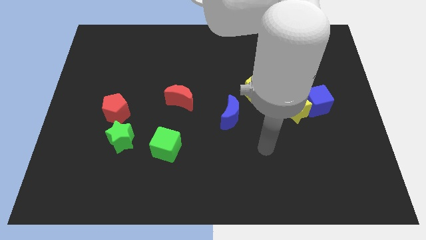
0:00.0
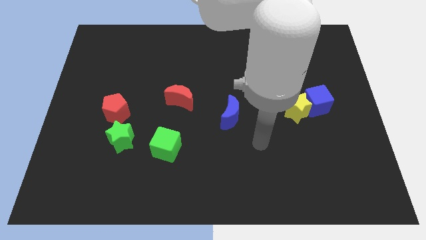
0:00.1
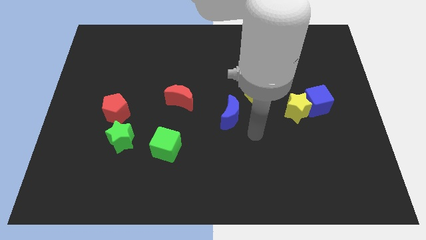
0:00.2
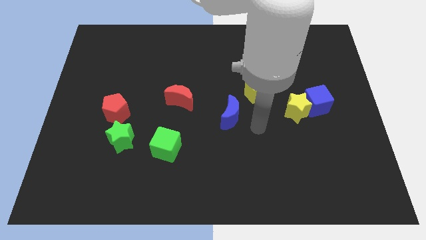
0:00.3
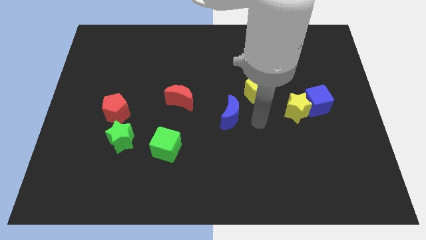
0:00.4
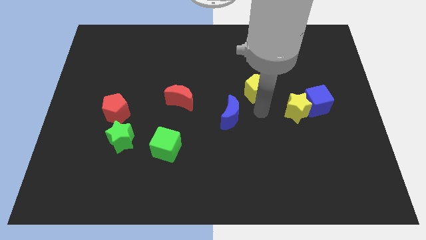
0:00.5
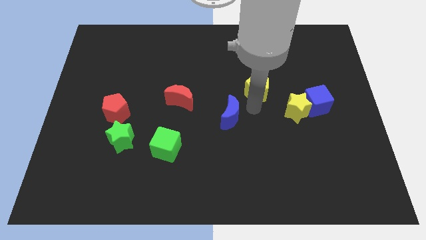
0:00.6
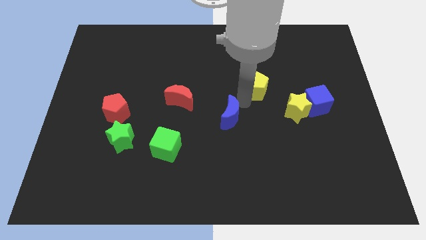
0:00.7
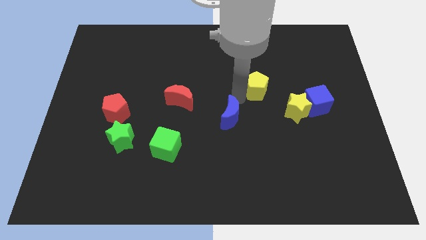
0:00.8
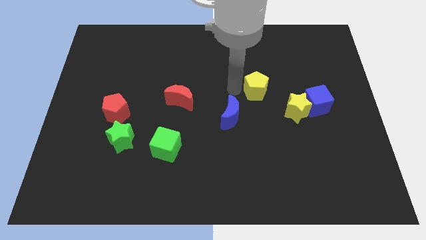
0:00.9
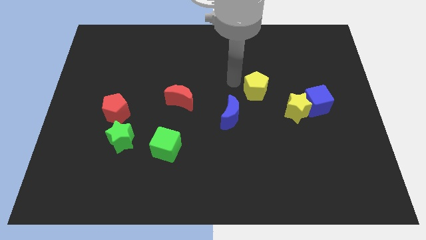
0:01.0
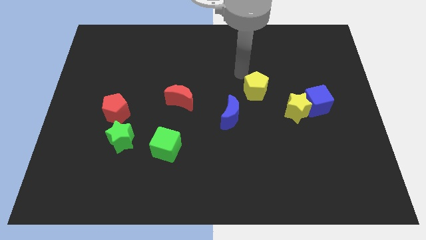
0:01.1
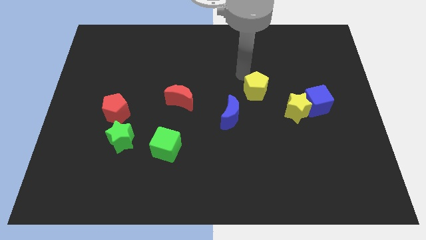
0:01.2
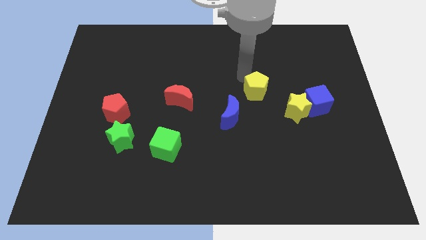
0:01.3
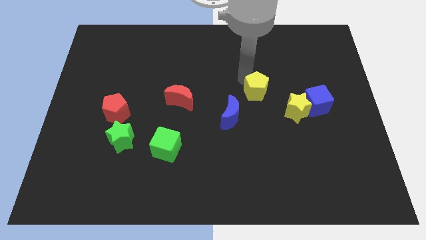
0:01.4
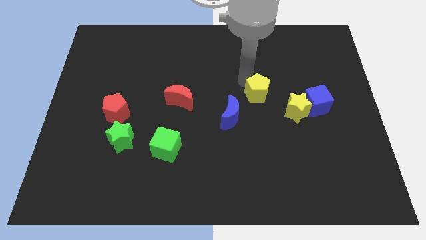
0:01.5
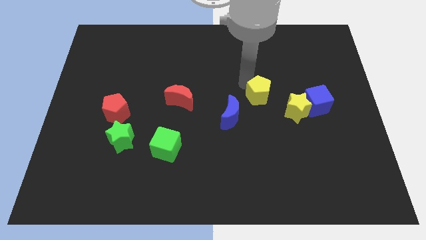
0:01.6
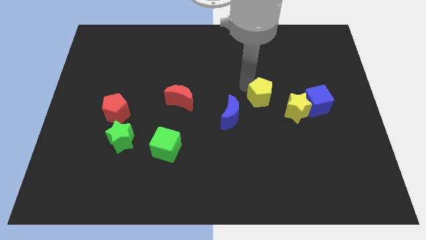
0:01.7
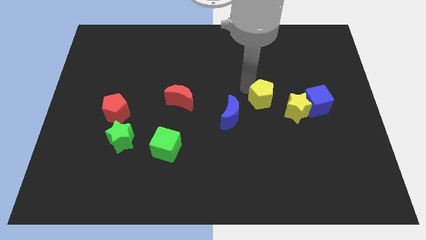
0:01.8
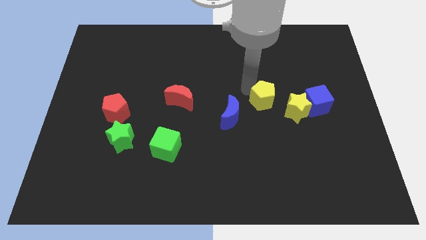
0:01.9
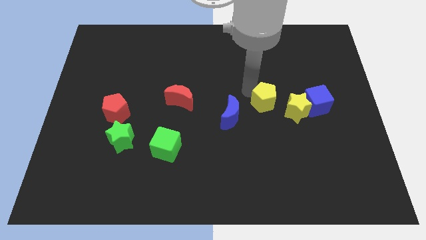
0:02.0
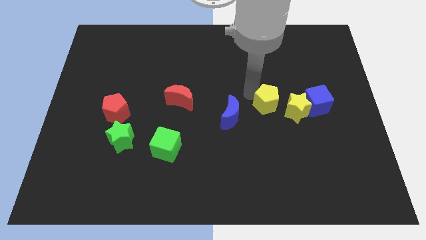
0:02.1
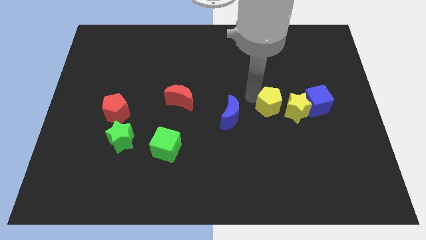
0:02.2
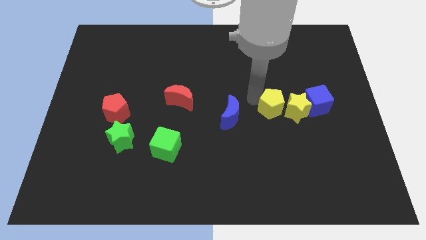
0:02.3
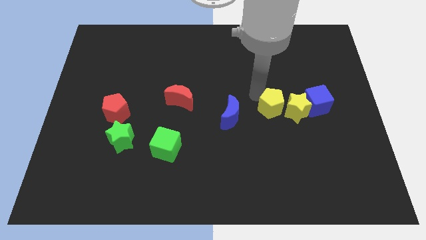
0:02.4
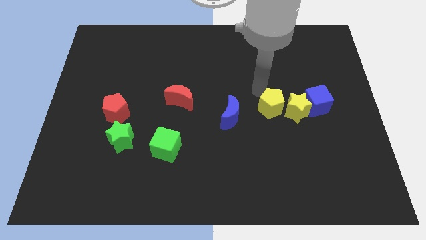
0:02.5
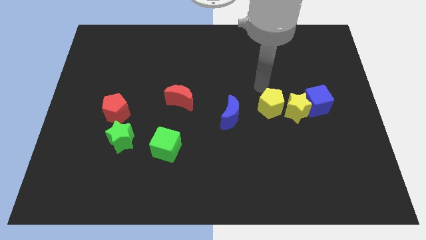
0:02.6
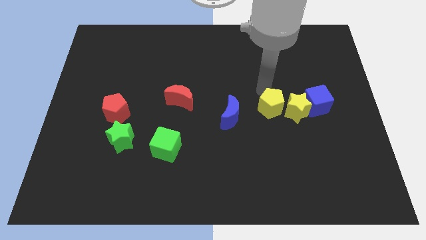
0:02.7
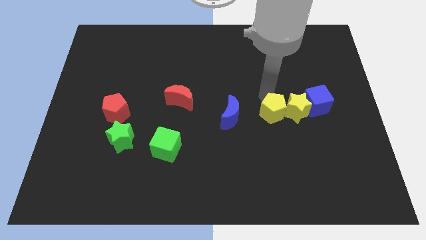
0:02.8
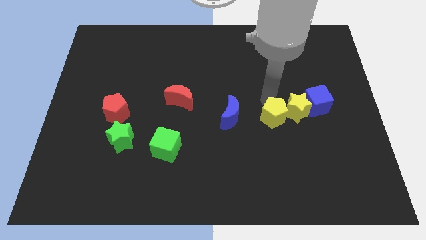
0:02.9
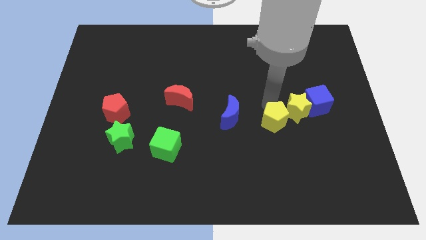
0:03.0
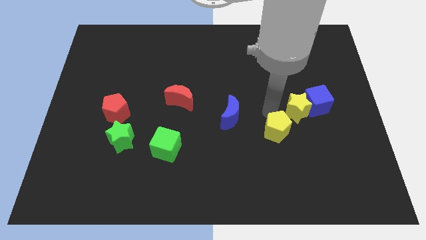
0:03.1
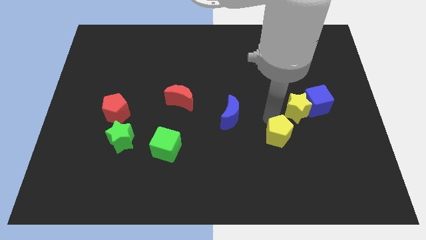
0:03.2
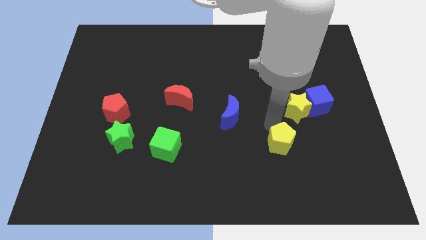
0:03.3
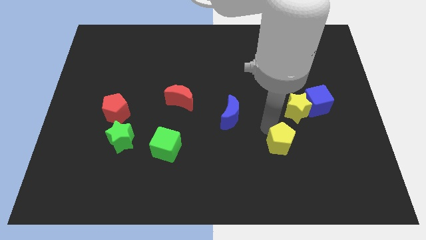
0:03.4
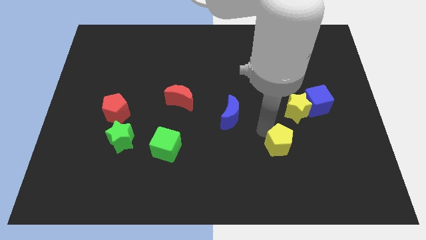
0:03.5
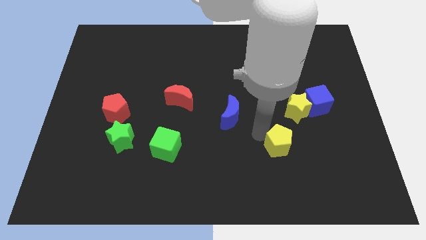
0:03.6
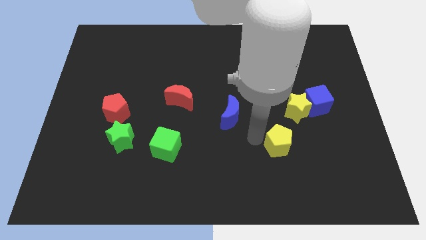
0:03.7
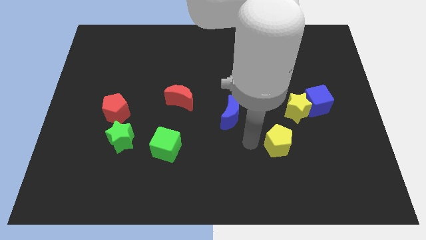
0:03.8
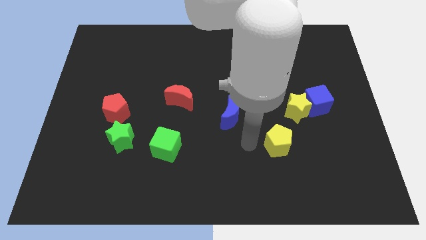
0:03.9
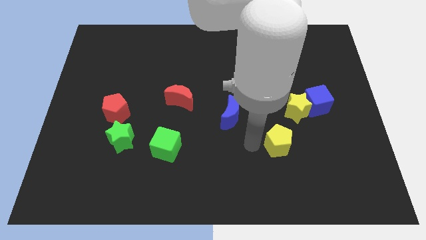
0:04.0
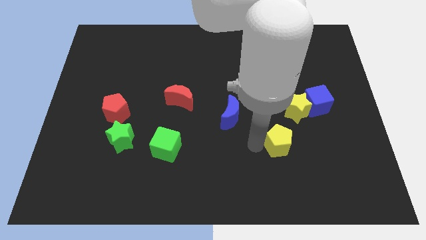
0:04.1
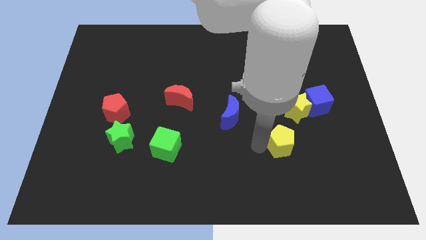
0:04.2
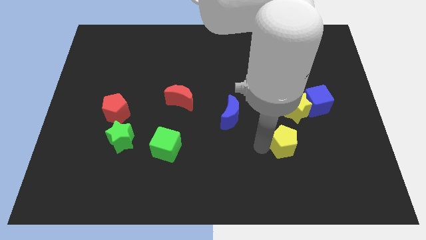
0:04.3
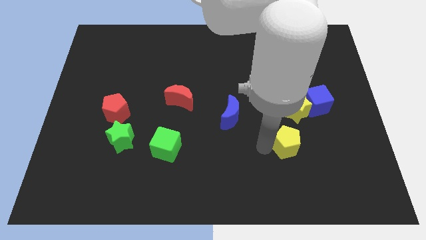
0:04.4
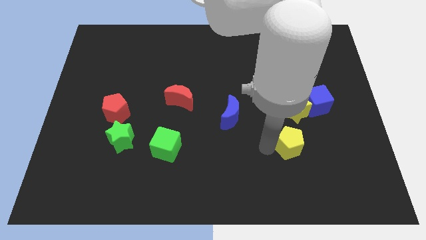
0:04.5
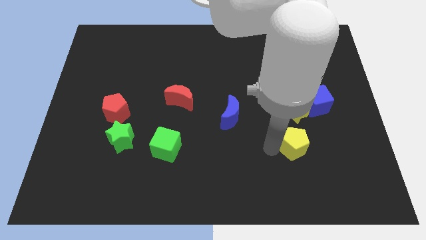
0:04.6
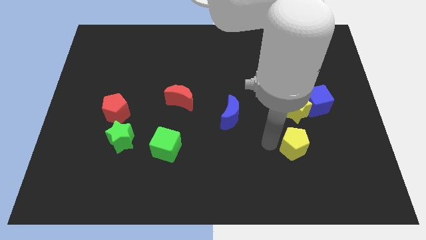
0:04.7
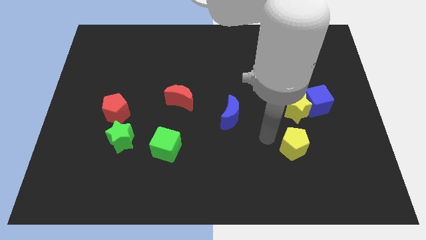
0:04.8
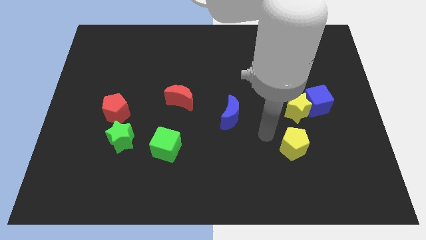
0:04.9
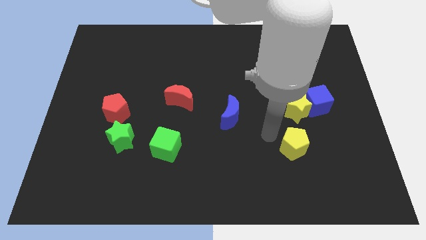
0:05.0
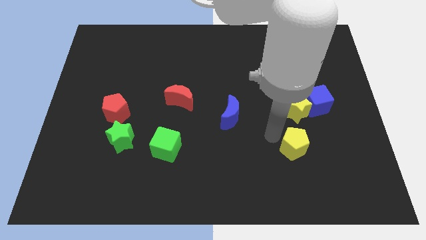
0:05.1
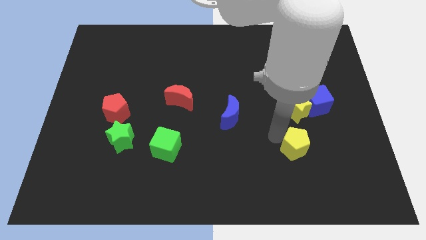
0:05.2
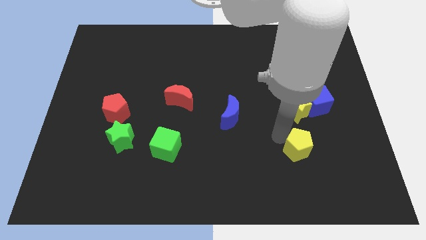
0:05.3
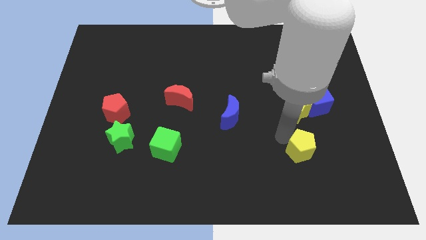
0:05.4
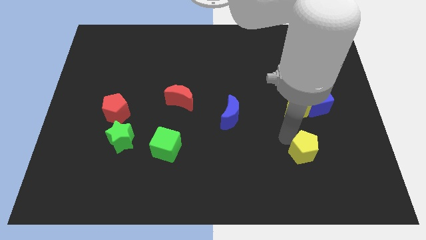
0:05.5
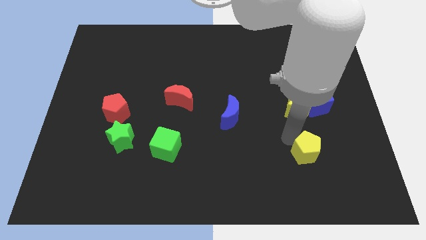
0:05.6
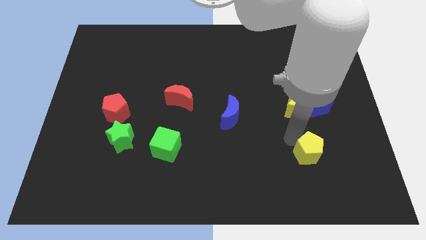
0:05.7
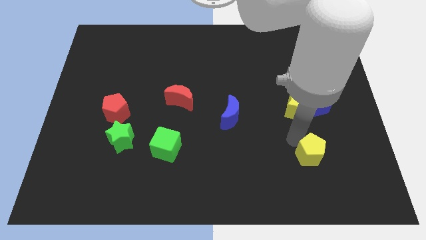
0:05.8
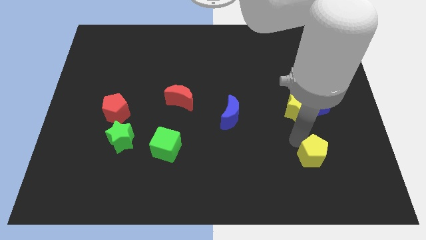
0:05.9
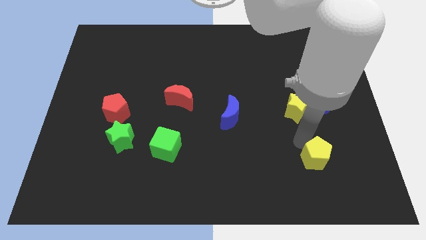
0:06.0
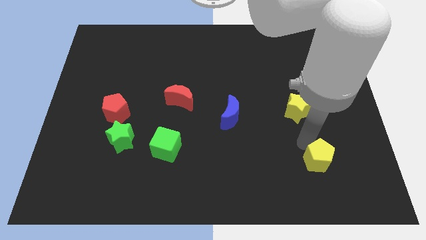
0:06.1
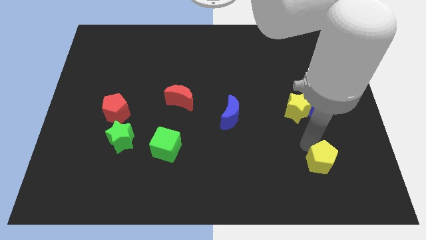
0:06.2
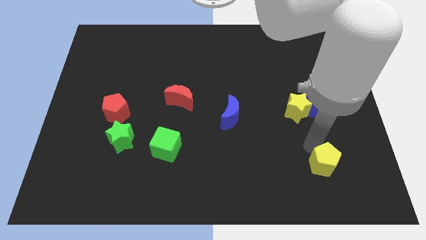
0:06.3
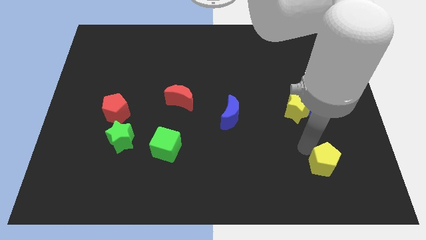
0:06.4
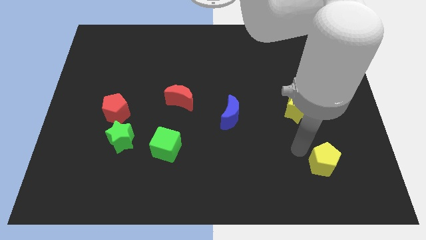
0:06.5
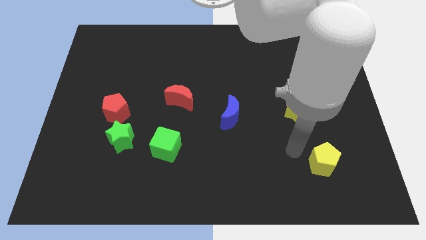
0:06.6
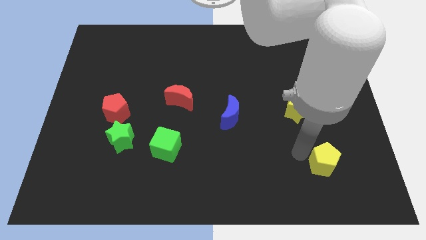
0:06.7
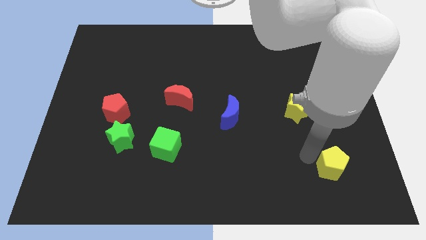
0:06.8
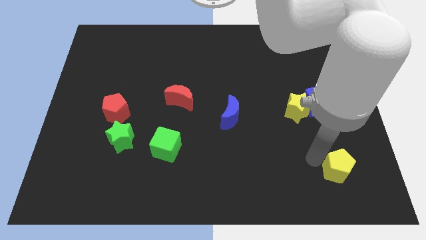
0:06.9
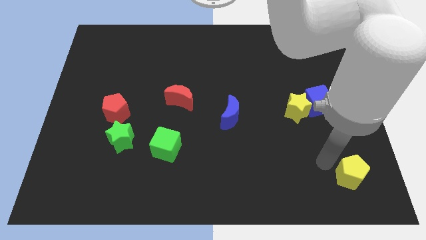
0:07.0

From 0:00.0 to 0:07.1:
push the yellow pentagon to the bottom right corner
